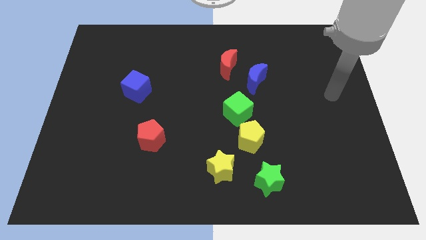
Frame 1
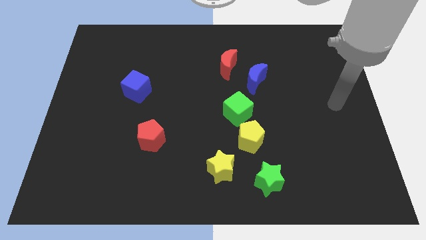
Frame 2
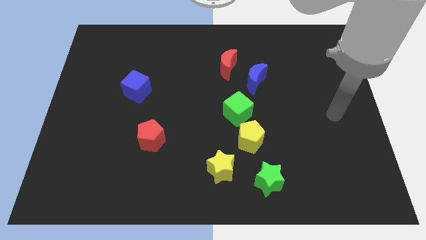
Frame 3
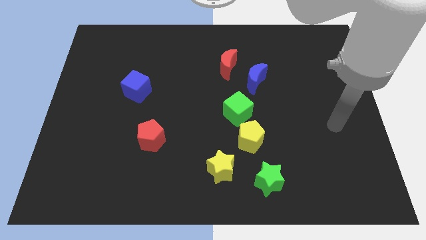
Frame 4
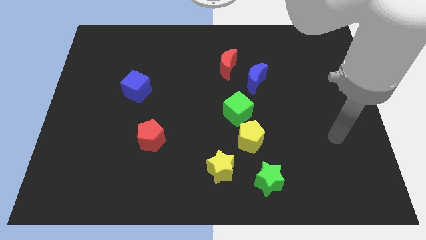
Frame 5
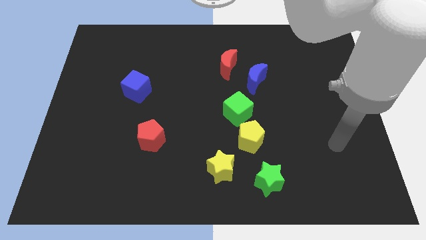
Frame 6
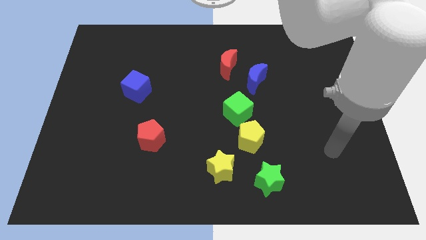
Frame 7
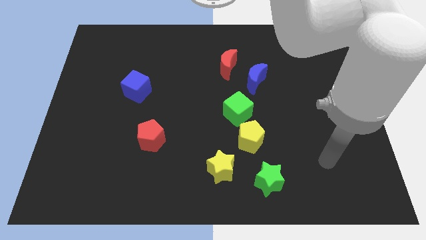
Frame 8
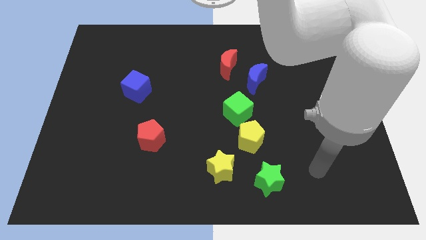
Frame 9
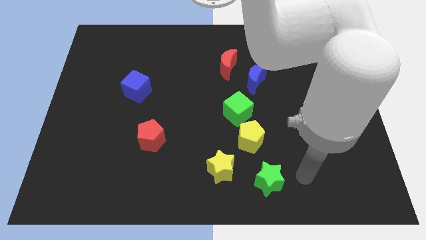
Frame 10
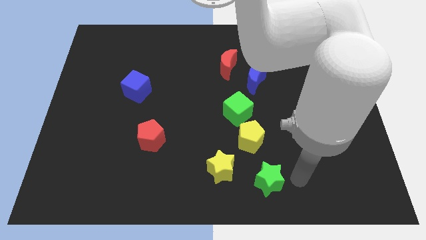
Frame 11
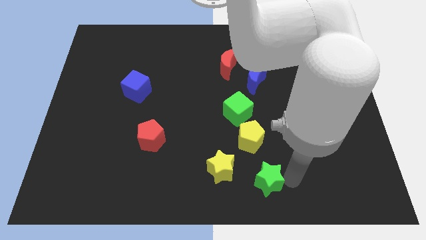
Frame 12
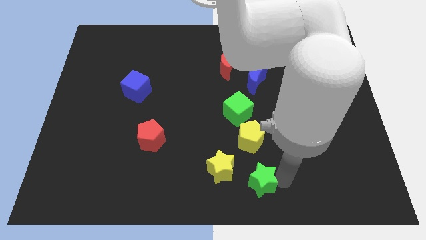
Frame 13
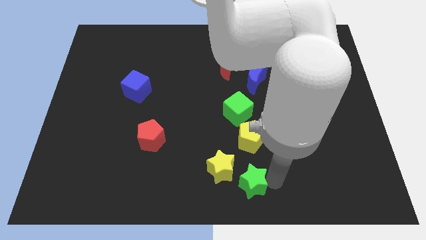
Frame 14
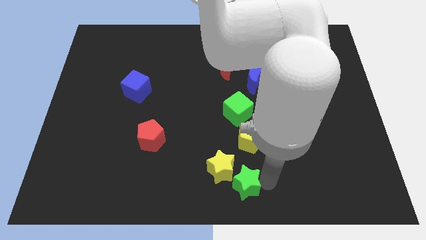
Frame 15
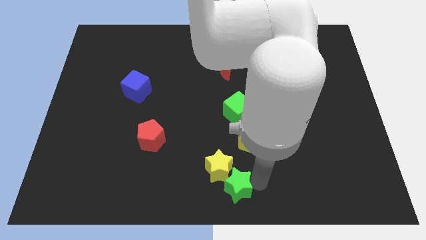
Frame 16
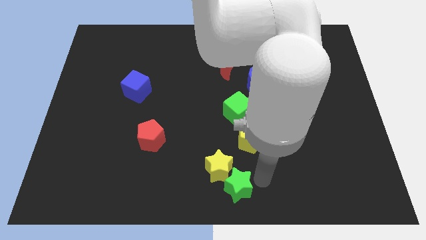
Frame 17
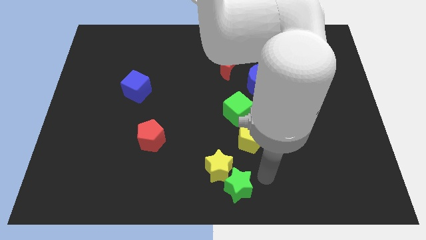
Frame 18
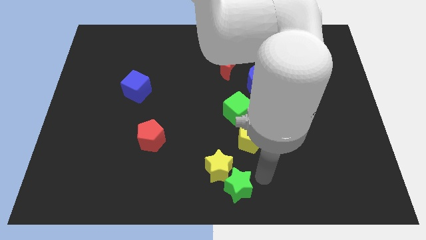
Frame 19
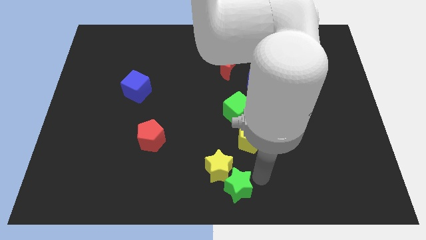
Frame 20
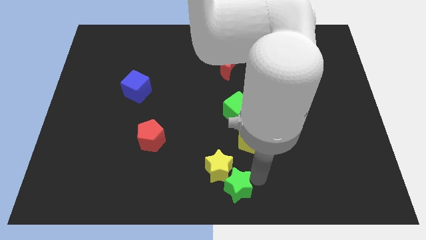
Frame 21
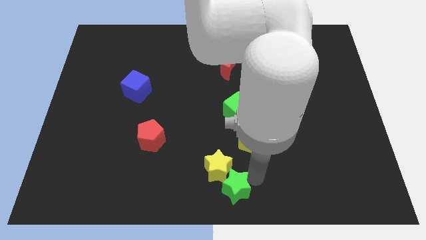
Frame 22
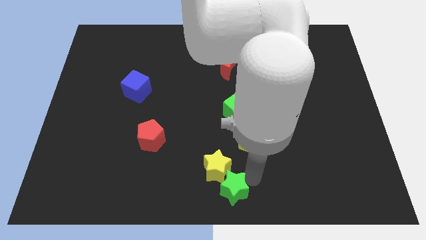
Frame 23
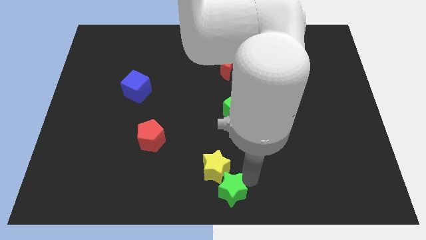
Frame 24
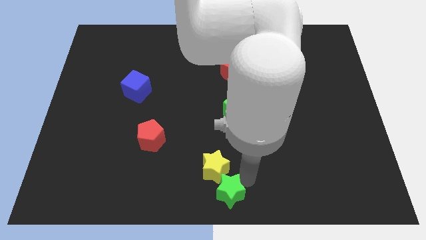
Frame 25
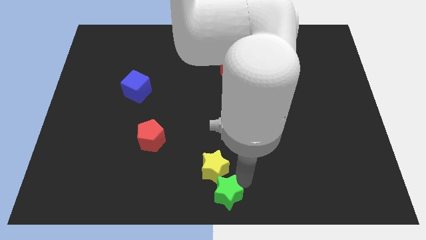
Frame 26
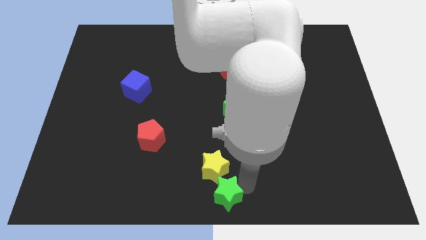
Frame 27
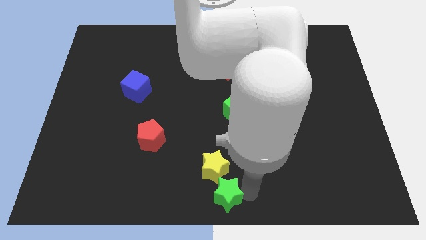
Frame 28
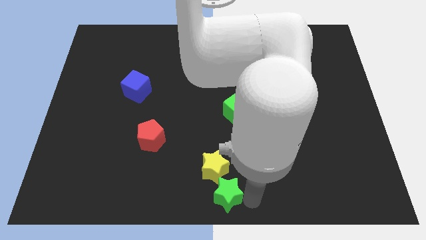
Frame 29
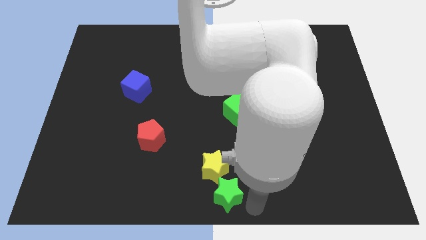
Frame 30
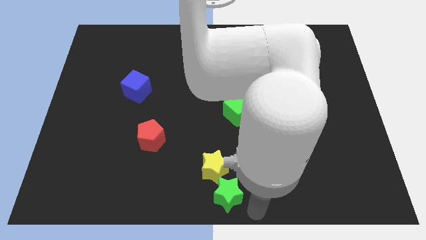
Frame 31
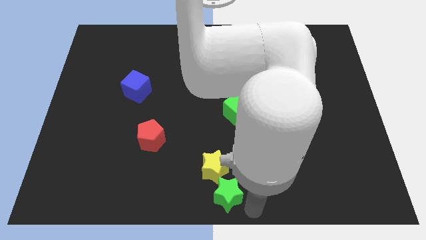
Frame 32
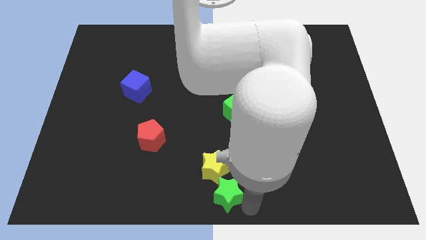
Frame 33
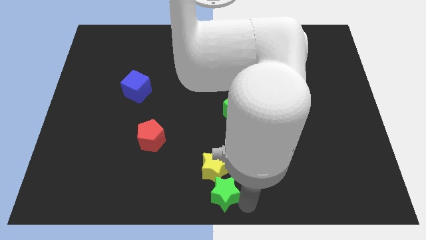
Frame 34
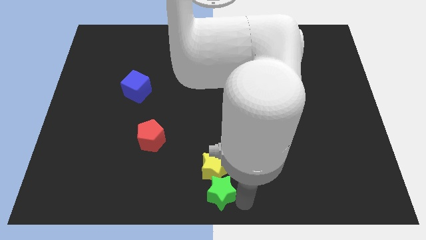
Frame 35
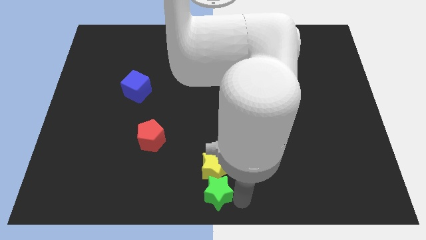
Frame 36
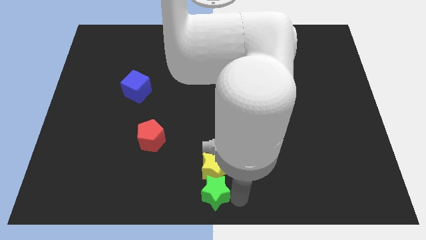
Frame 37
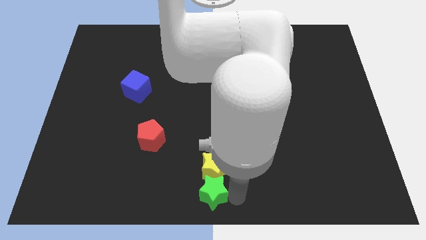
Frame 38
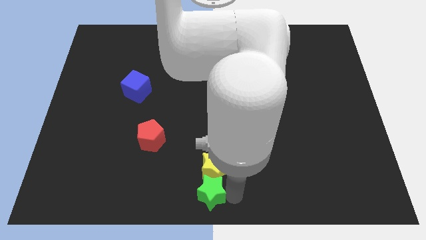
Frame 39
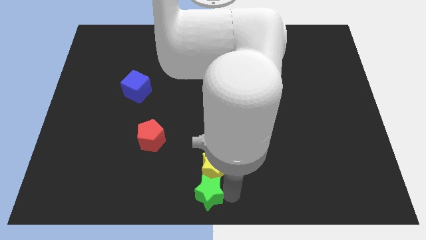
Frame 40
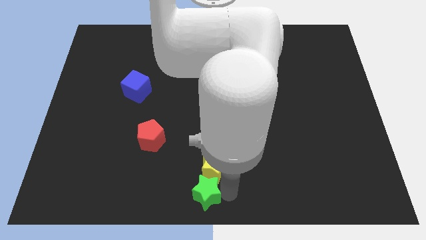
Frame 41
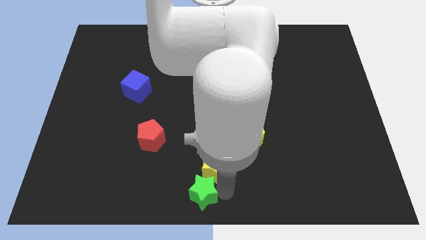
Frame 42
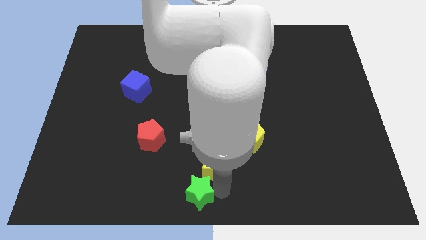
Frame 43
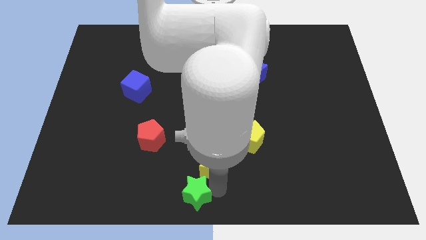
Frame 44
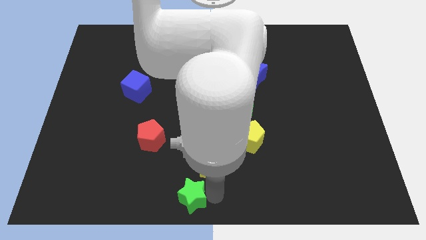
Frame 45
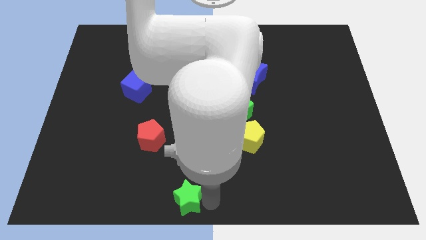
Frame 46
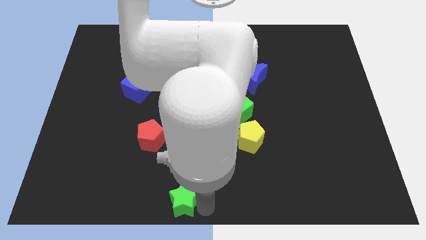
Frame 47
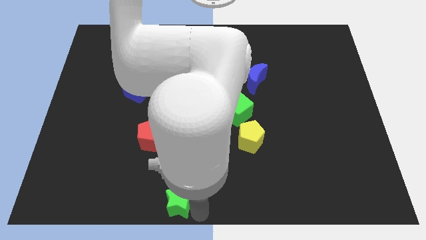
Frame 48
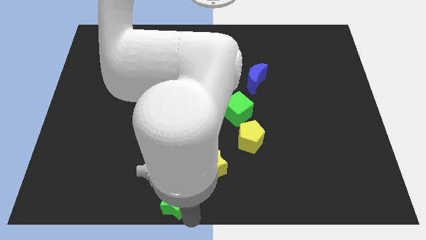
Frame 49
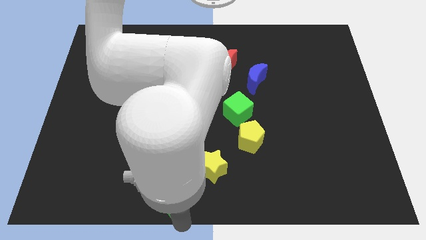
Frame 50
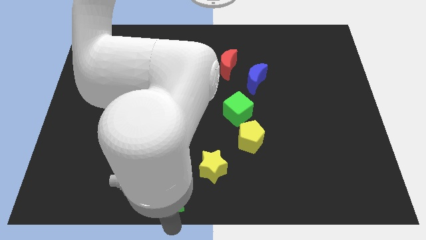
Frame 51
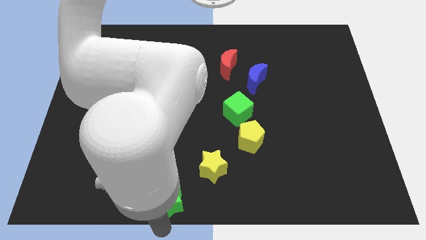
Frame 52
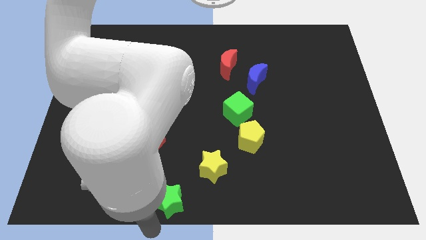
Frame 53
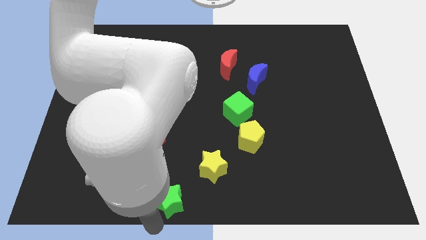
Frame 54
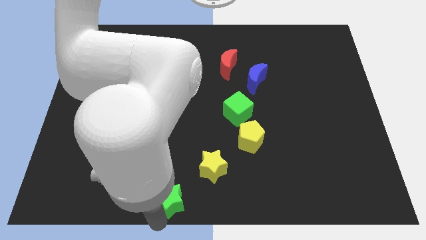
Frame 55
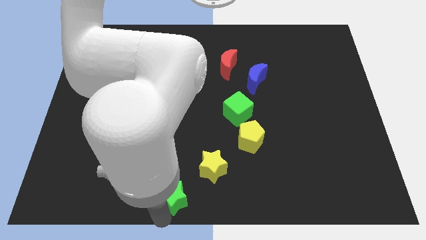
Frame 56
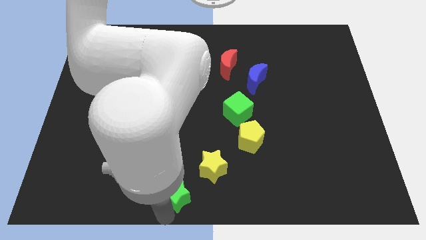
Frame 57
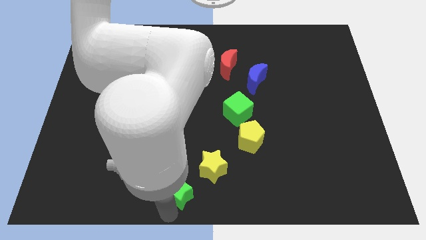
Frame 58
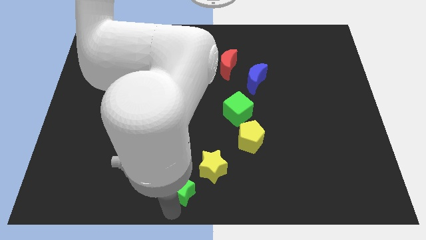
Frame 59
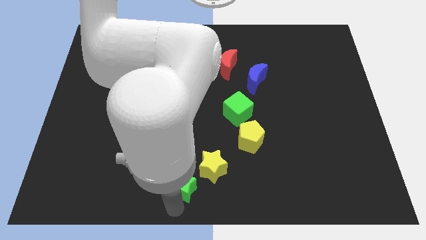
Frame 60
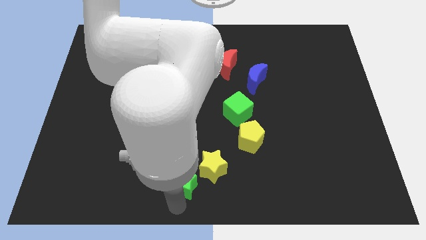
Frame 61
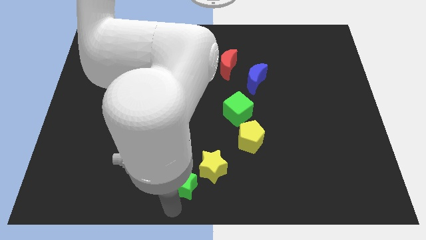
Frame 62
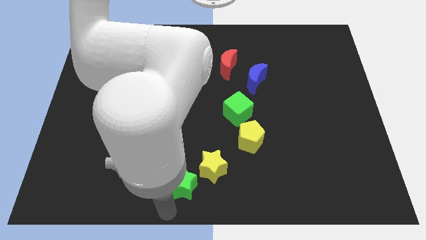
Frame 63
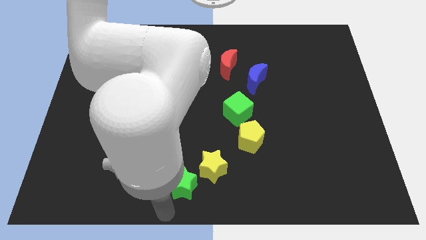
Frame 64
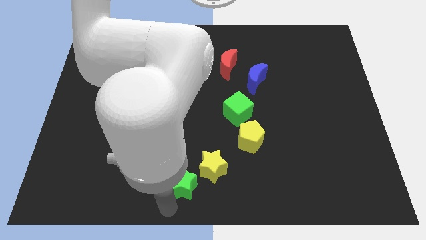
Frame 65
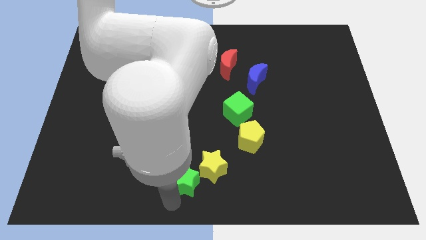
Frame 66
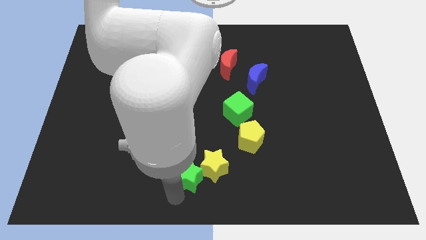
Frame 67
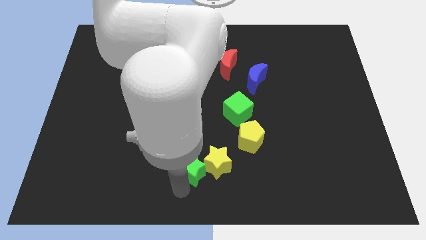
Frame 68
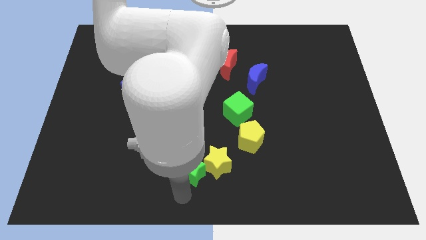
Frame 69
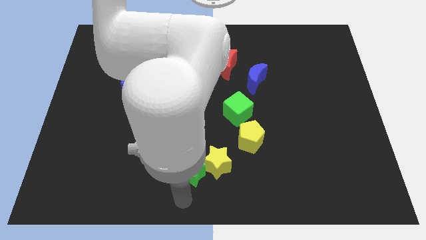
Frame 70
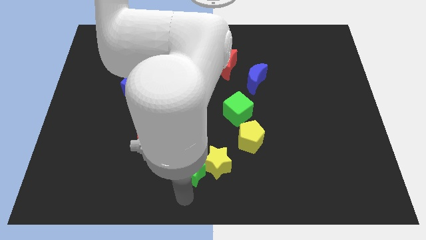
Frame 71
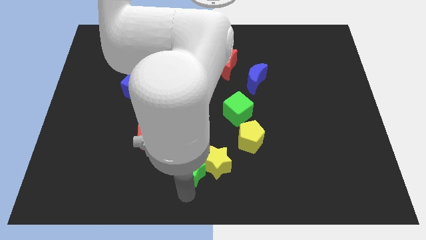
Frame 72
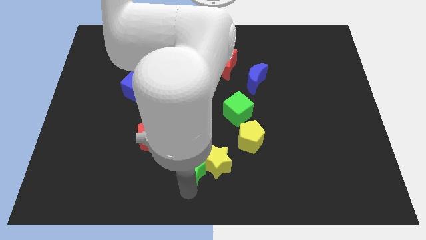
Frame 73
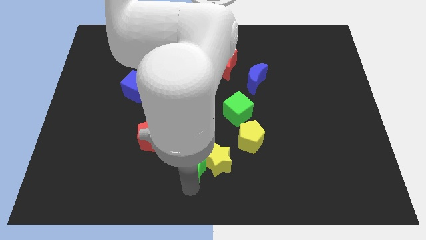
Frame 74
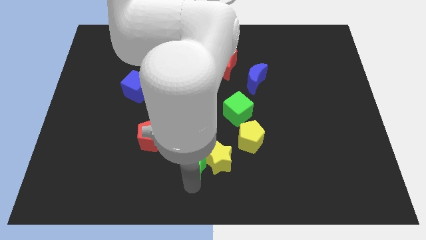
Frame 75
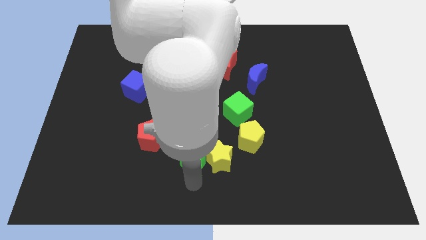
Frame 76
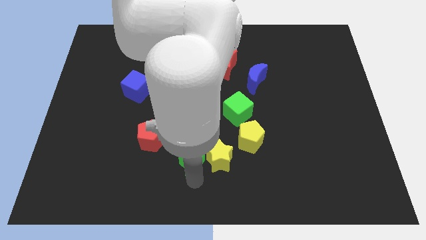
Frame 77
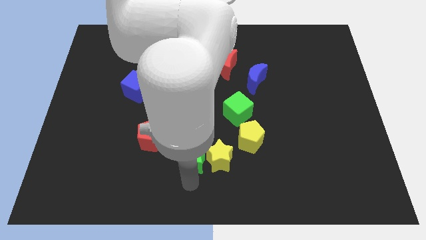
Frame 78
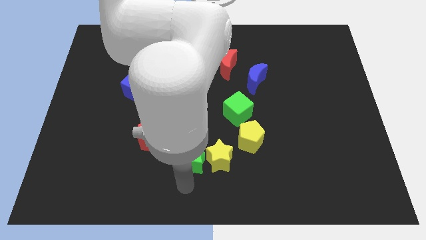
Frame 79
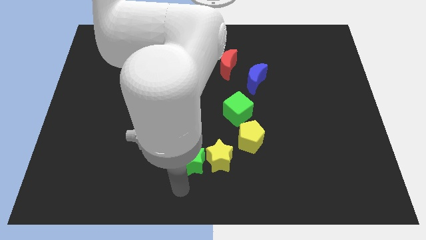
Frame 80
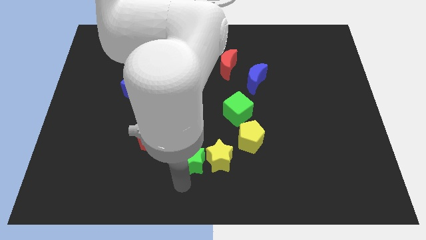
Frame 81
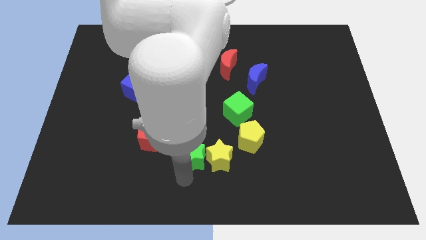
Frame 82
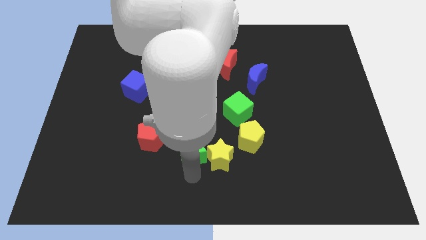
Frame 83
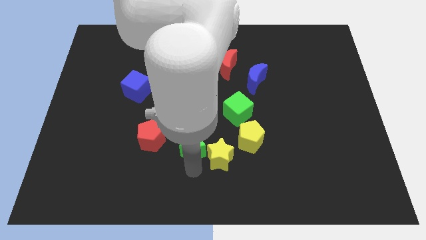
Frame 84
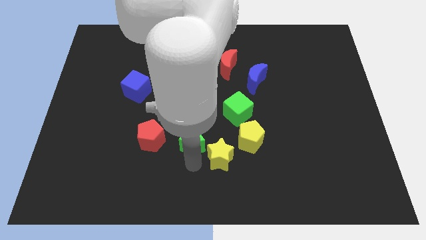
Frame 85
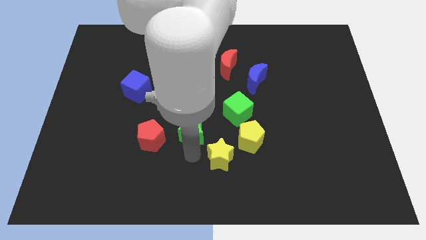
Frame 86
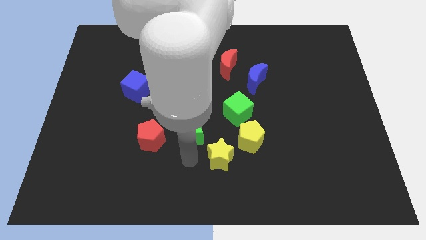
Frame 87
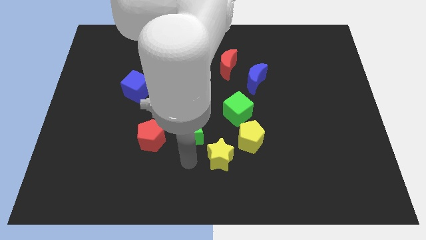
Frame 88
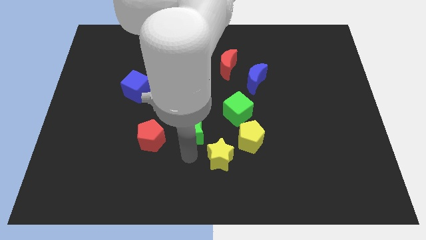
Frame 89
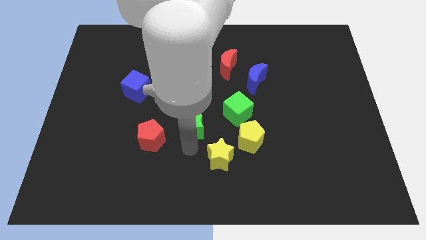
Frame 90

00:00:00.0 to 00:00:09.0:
slide the green star left of the green cube
